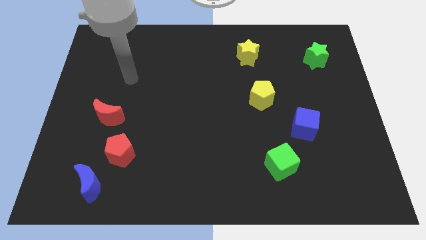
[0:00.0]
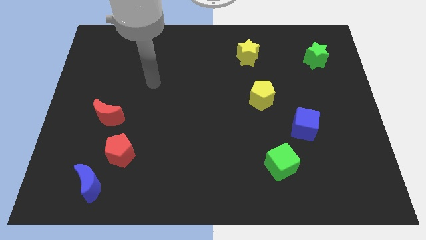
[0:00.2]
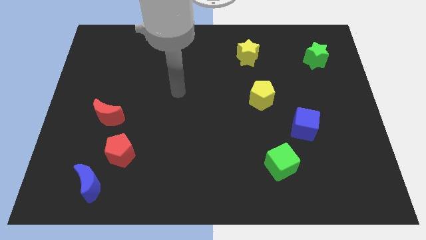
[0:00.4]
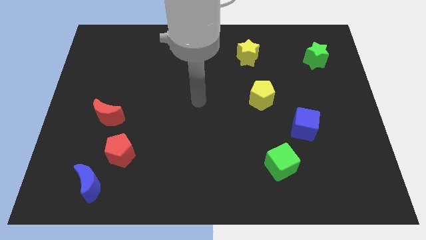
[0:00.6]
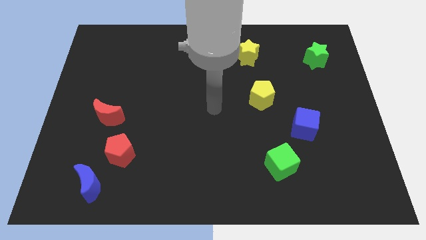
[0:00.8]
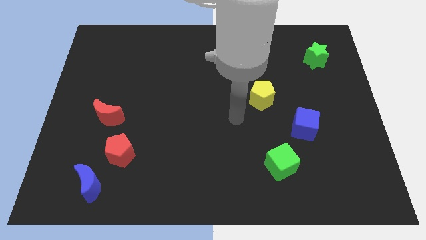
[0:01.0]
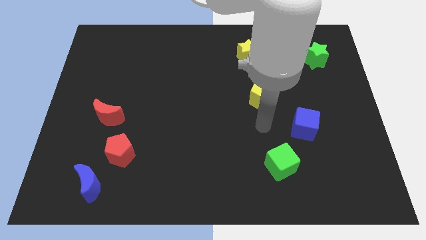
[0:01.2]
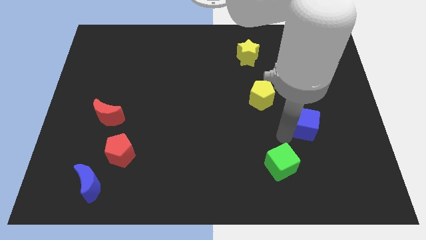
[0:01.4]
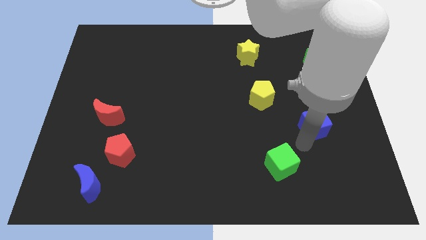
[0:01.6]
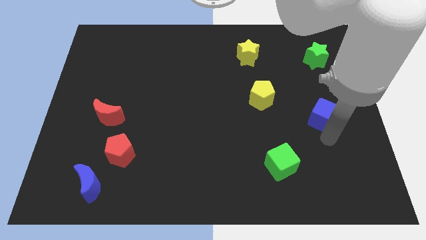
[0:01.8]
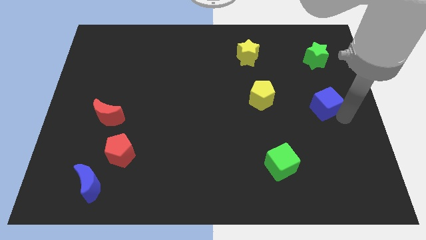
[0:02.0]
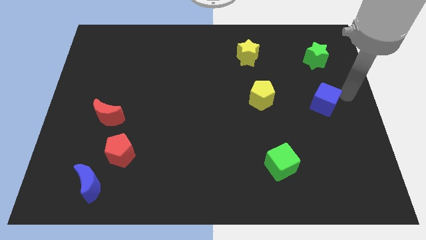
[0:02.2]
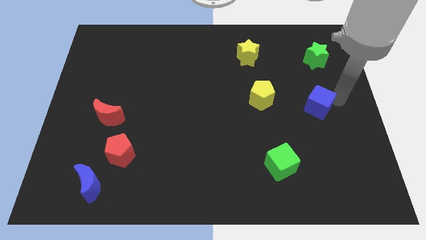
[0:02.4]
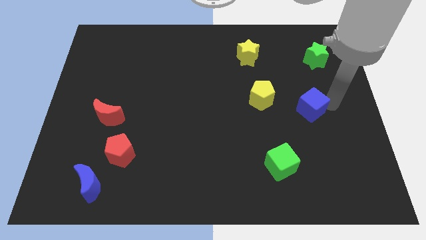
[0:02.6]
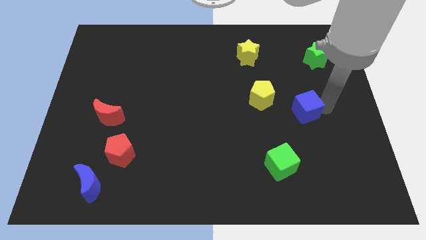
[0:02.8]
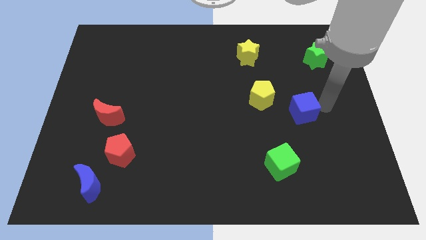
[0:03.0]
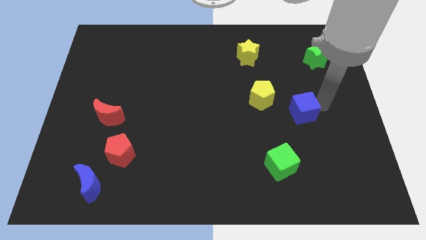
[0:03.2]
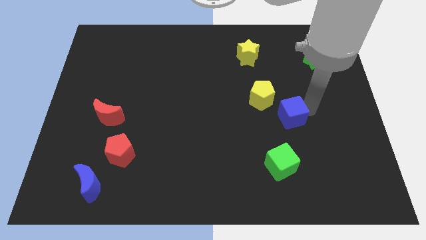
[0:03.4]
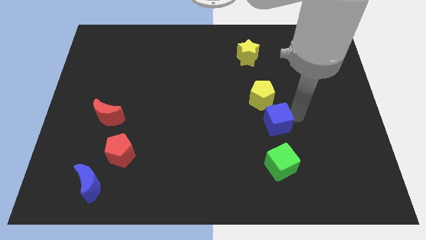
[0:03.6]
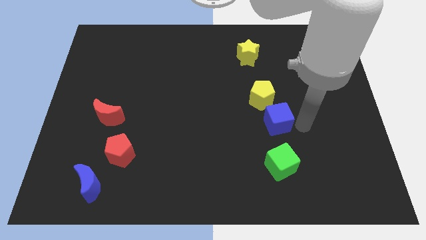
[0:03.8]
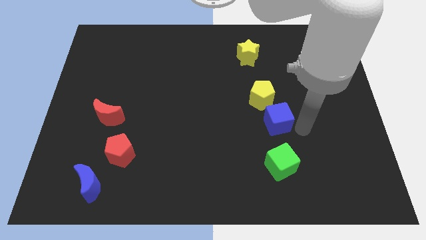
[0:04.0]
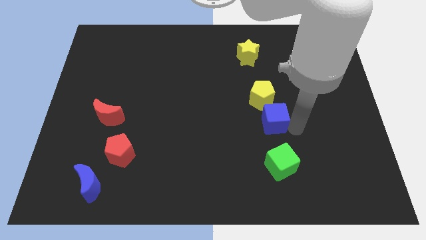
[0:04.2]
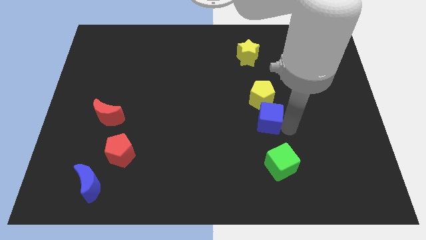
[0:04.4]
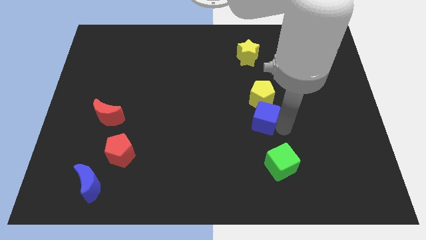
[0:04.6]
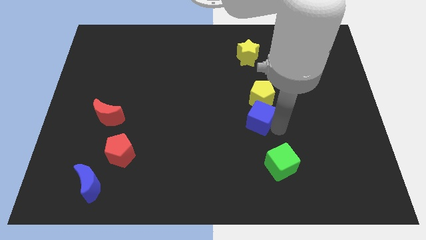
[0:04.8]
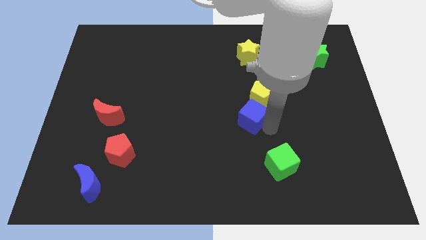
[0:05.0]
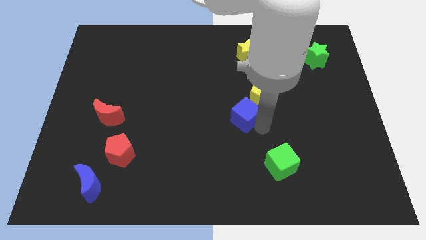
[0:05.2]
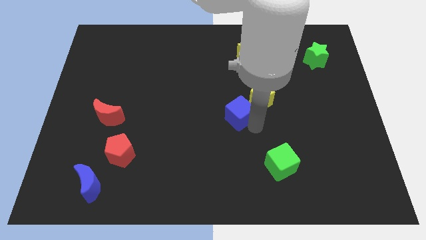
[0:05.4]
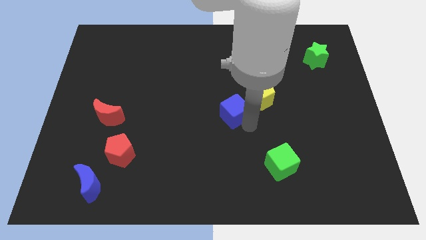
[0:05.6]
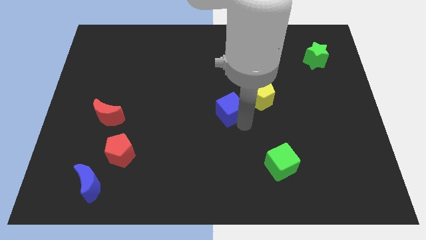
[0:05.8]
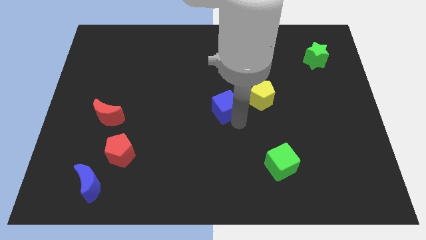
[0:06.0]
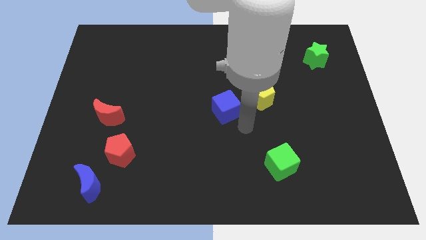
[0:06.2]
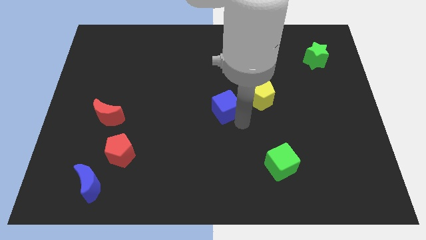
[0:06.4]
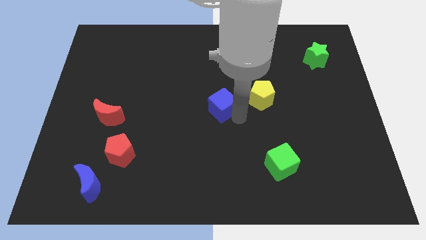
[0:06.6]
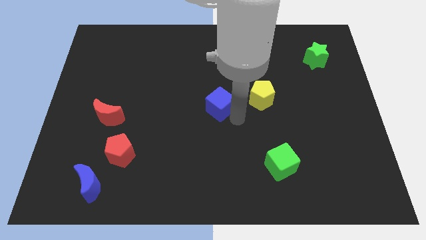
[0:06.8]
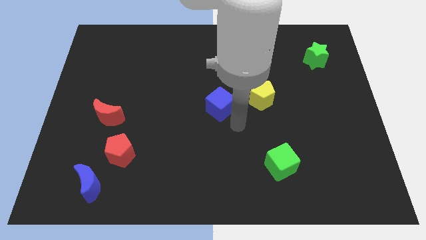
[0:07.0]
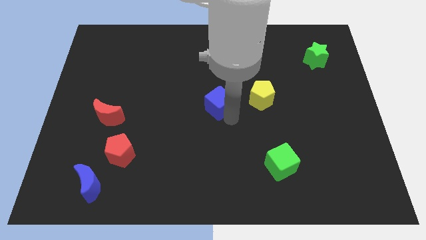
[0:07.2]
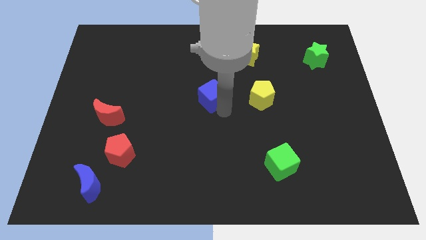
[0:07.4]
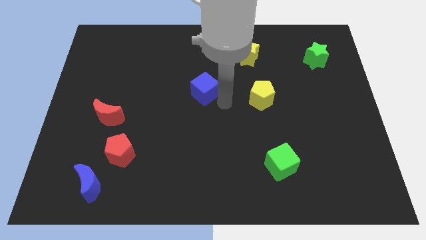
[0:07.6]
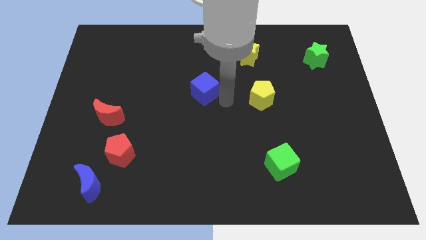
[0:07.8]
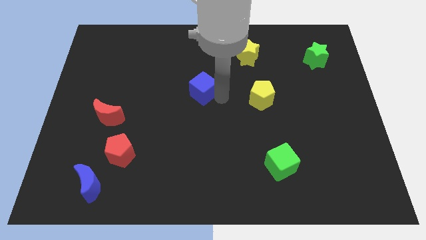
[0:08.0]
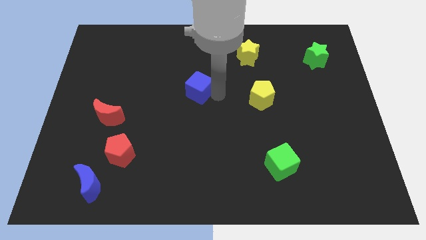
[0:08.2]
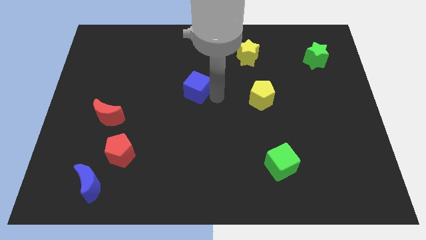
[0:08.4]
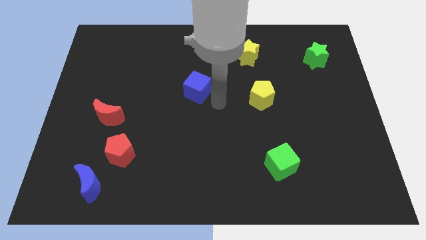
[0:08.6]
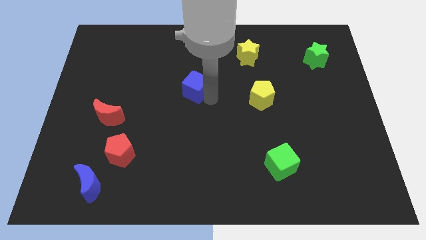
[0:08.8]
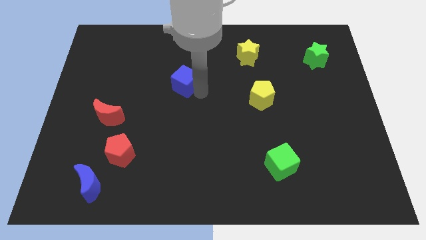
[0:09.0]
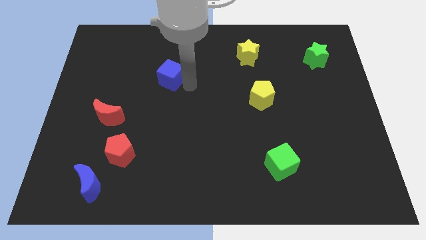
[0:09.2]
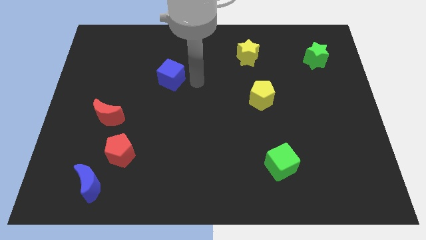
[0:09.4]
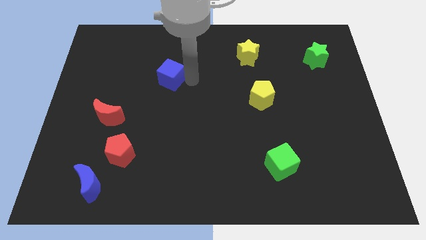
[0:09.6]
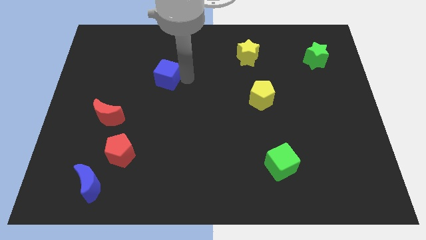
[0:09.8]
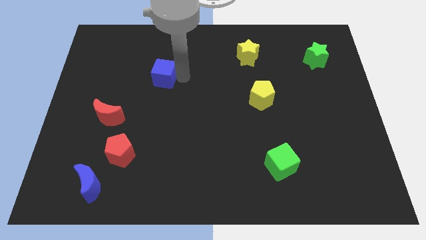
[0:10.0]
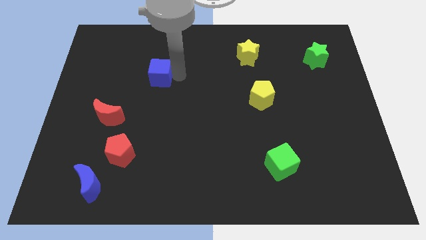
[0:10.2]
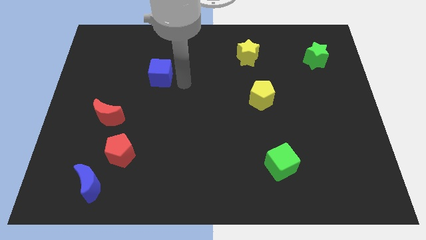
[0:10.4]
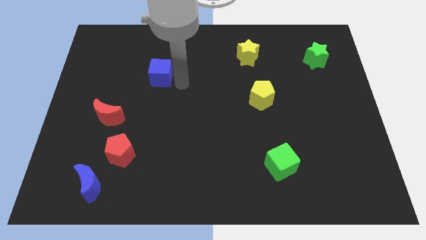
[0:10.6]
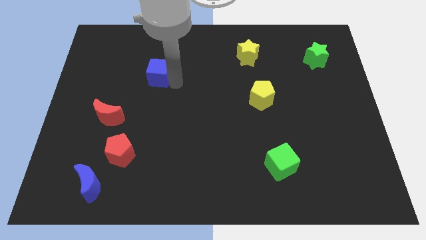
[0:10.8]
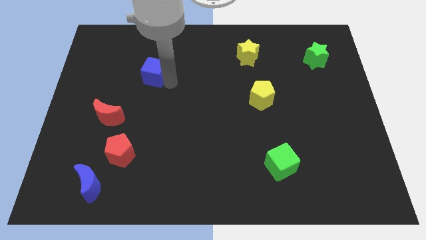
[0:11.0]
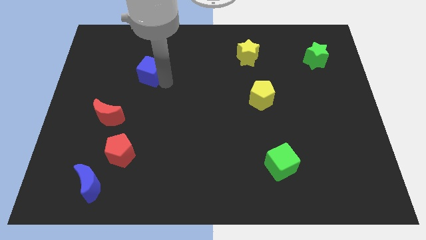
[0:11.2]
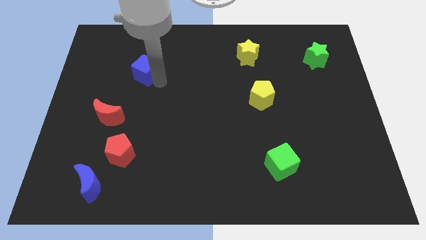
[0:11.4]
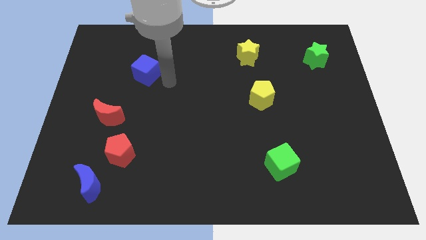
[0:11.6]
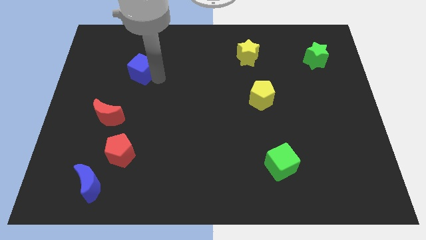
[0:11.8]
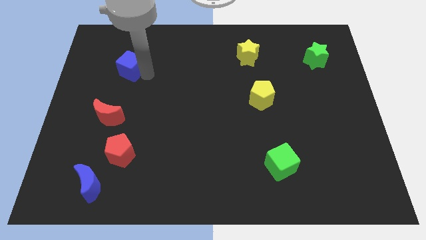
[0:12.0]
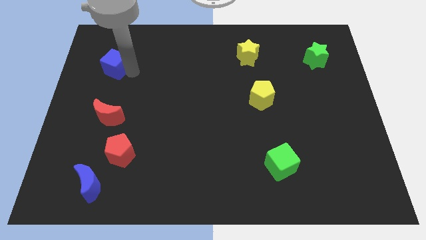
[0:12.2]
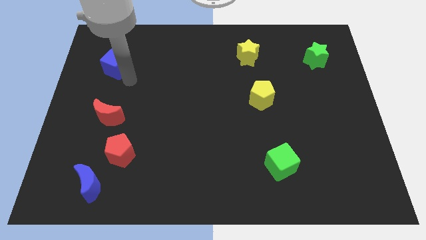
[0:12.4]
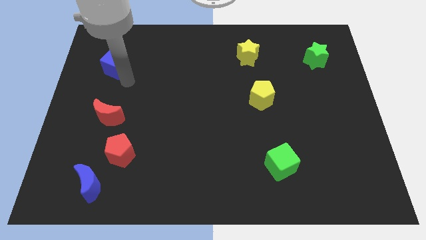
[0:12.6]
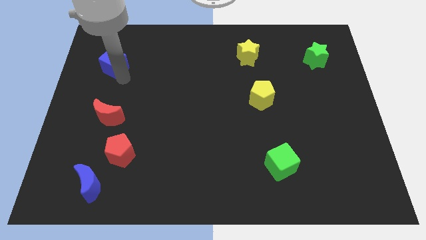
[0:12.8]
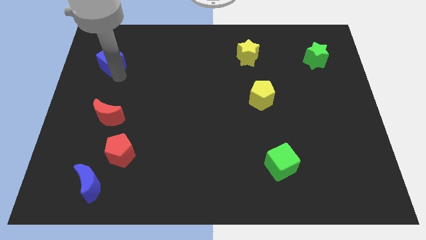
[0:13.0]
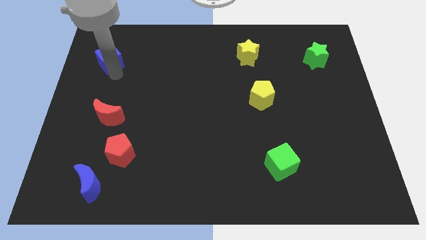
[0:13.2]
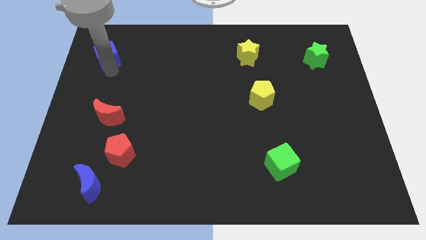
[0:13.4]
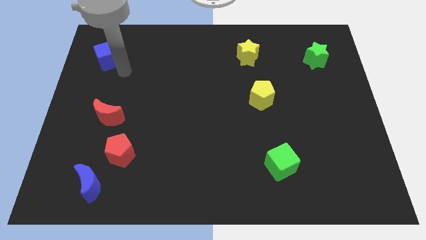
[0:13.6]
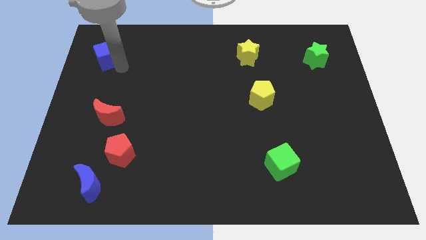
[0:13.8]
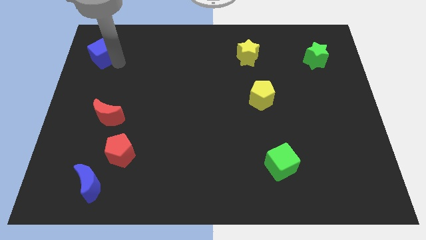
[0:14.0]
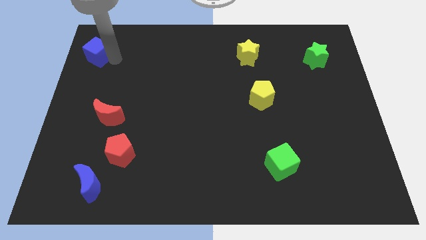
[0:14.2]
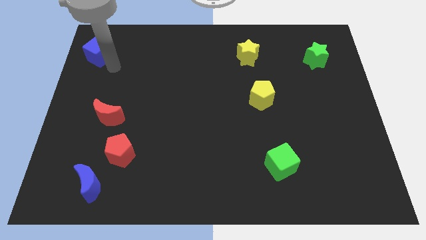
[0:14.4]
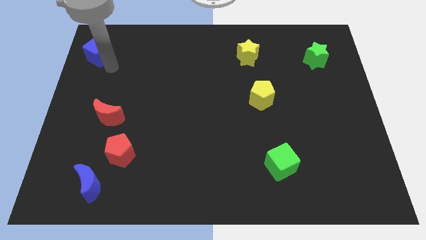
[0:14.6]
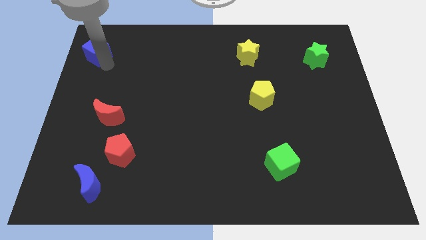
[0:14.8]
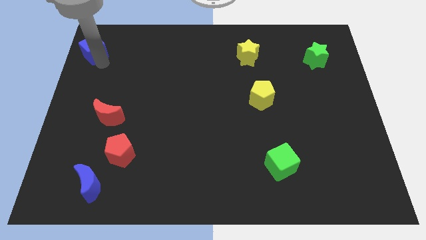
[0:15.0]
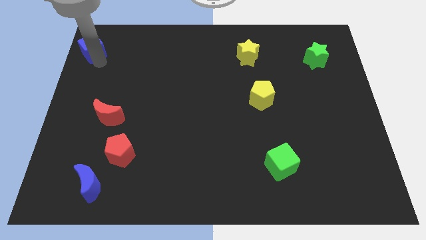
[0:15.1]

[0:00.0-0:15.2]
slide the blue cube to the top left of the board
